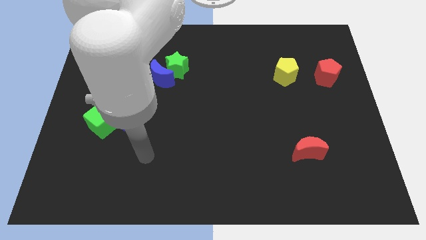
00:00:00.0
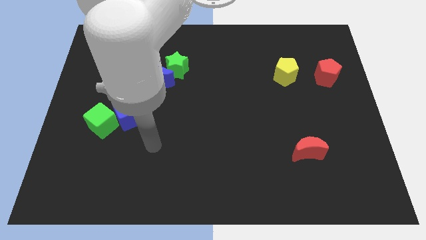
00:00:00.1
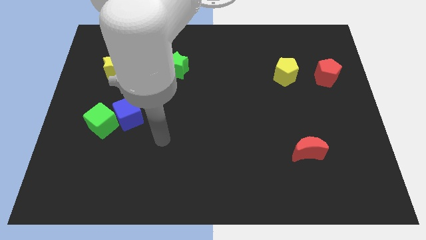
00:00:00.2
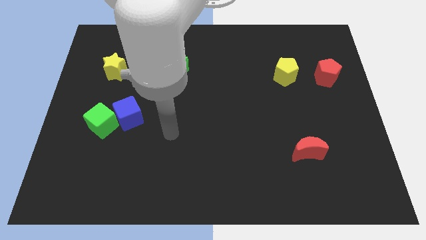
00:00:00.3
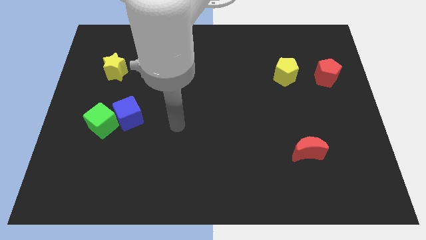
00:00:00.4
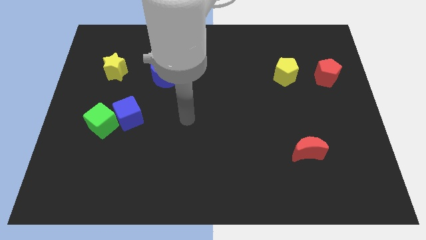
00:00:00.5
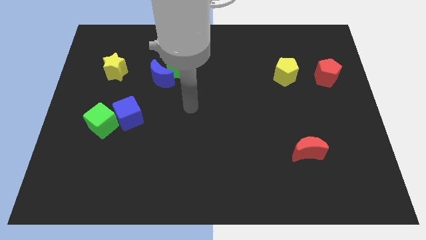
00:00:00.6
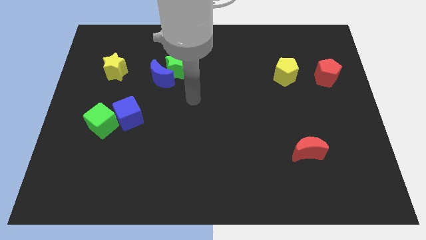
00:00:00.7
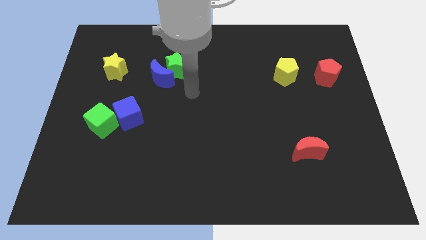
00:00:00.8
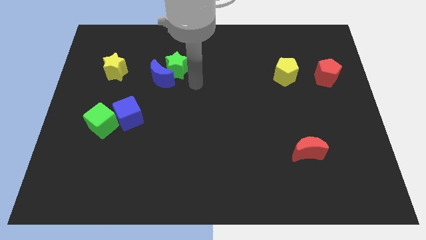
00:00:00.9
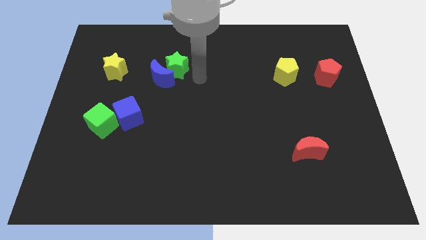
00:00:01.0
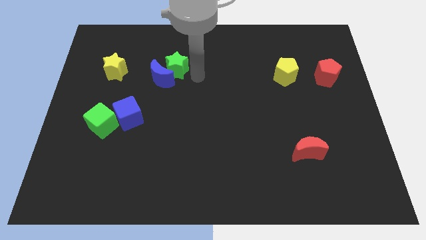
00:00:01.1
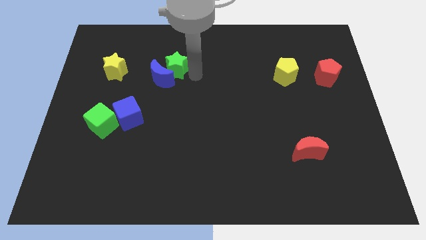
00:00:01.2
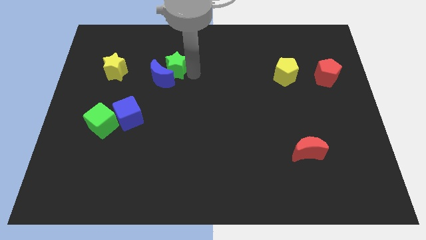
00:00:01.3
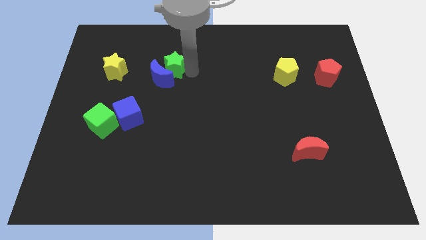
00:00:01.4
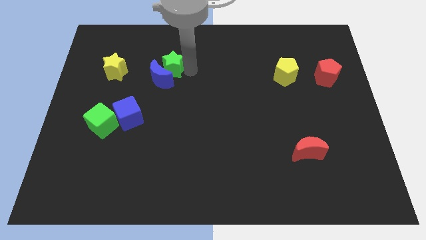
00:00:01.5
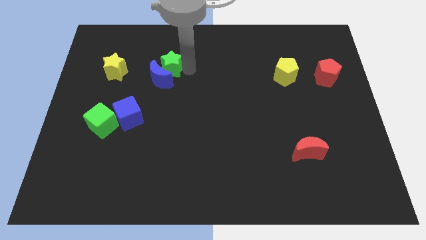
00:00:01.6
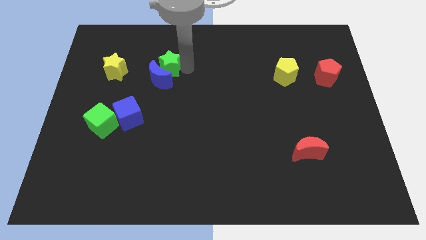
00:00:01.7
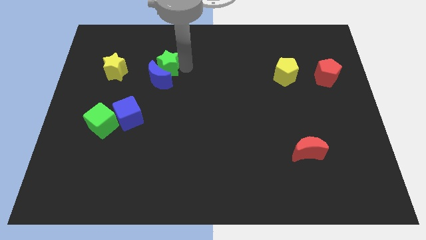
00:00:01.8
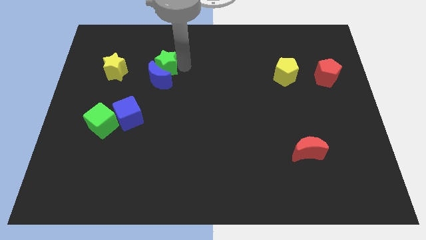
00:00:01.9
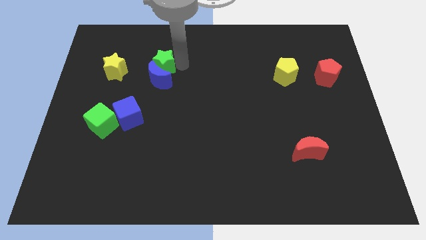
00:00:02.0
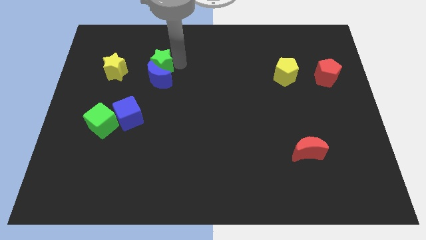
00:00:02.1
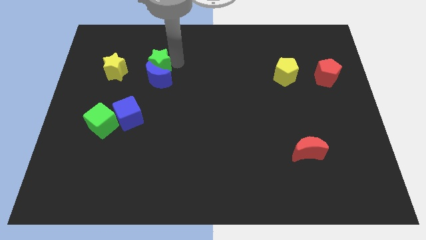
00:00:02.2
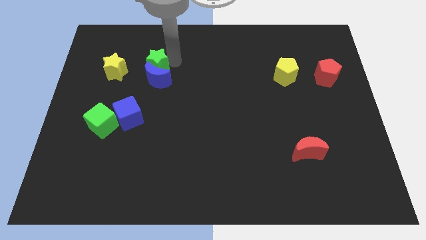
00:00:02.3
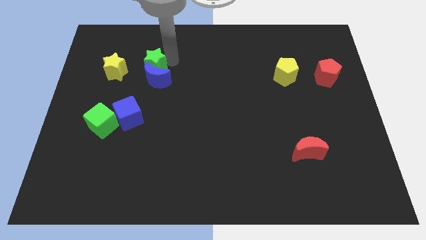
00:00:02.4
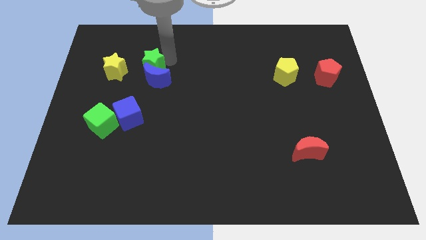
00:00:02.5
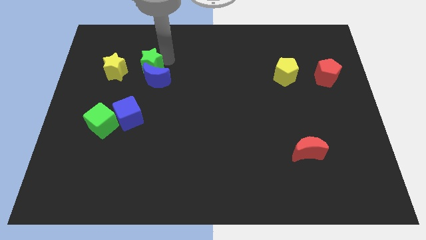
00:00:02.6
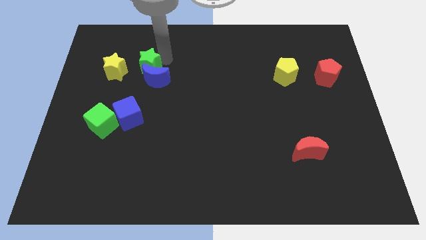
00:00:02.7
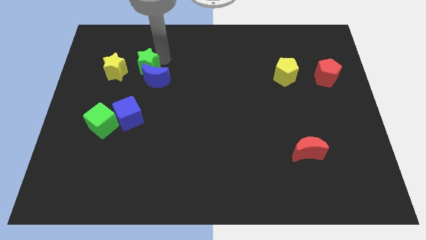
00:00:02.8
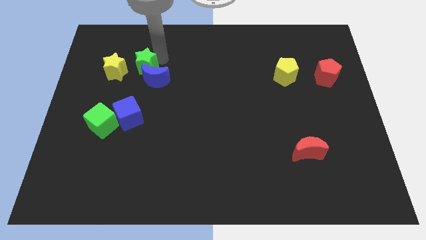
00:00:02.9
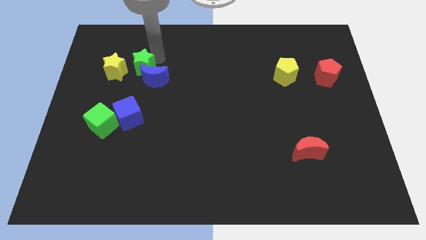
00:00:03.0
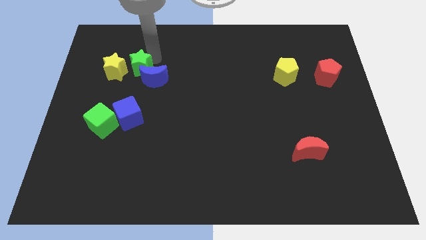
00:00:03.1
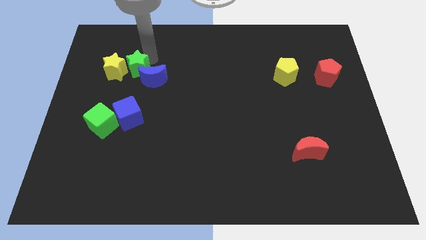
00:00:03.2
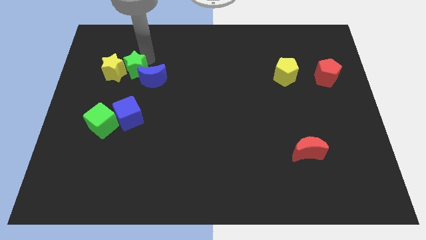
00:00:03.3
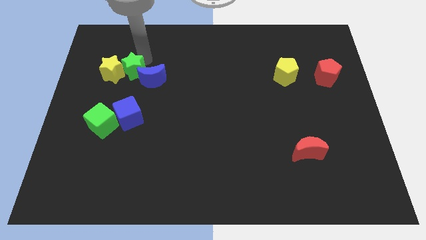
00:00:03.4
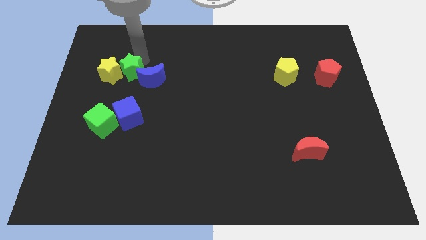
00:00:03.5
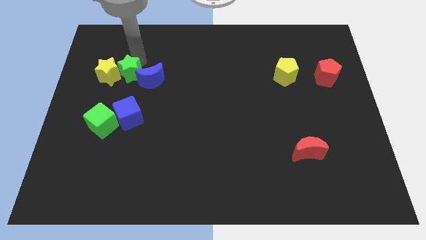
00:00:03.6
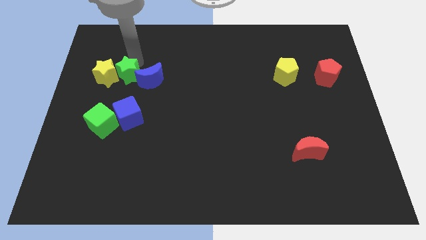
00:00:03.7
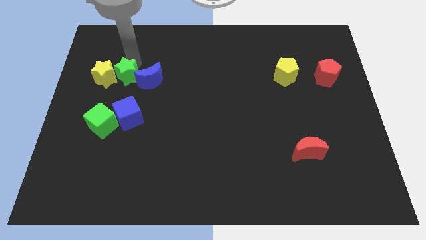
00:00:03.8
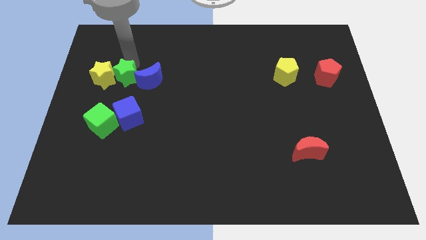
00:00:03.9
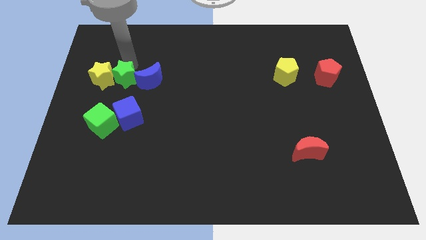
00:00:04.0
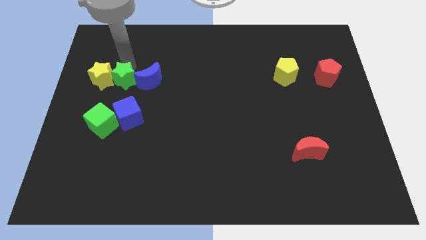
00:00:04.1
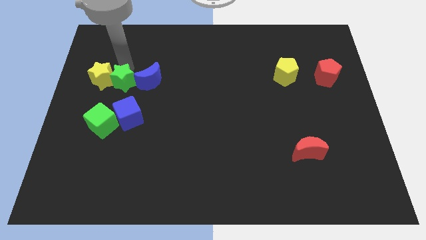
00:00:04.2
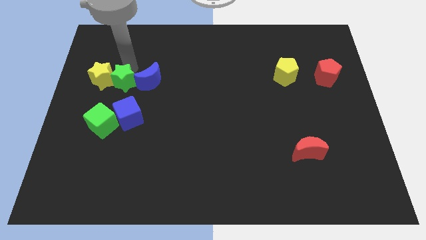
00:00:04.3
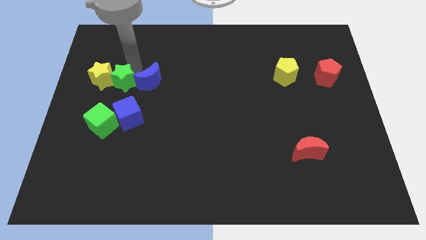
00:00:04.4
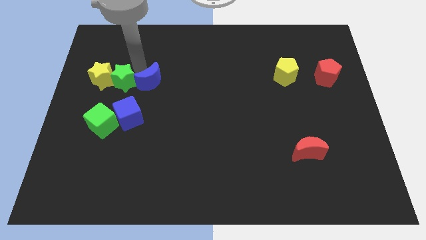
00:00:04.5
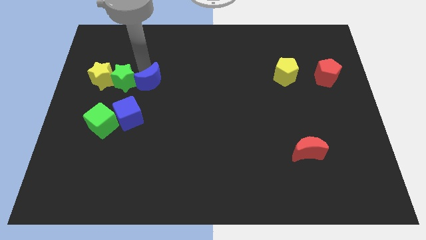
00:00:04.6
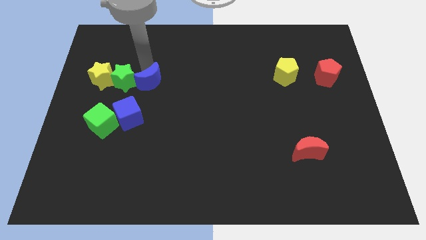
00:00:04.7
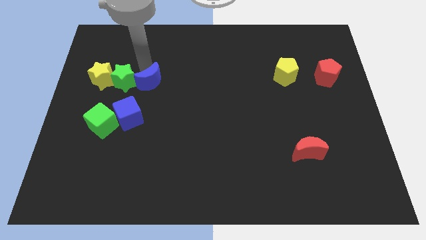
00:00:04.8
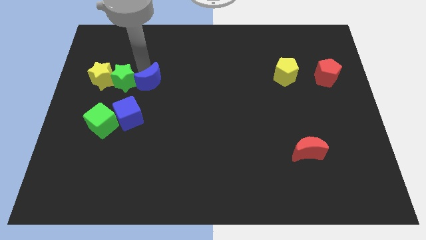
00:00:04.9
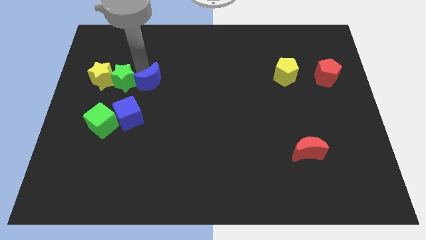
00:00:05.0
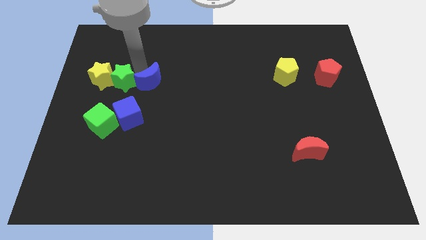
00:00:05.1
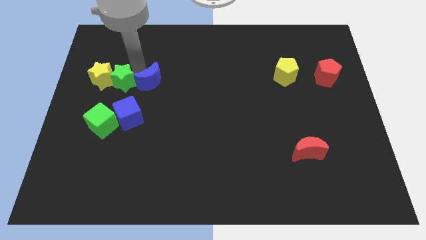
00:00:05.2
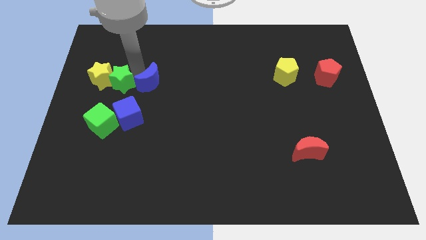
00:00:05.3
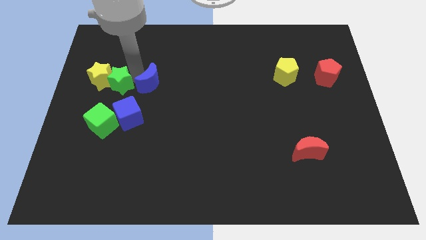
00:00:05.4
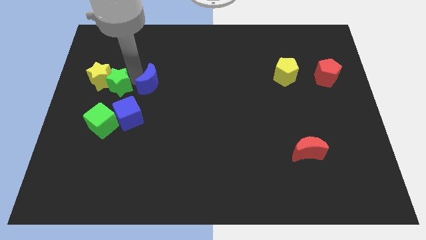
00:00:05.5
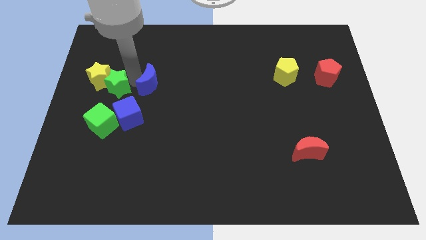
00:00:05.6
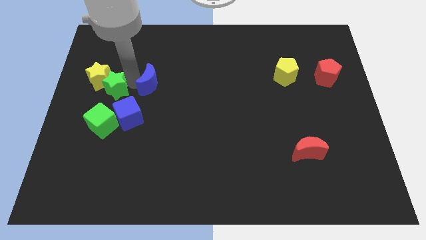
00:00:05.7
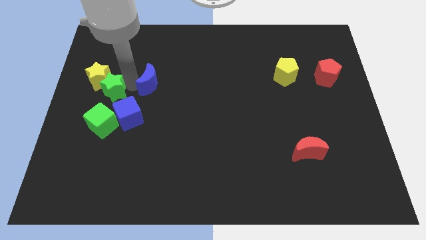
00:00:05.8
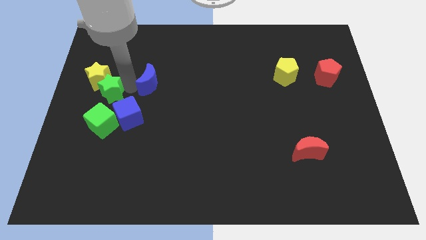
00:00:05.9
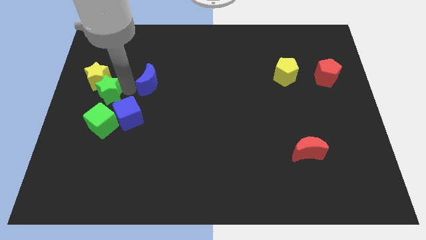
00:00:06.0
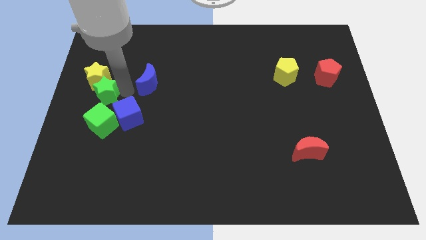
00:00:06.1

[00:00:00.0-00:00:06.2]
move the green star to the left side of the board
